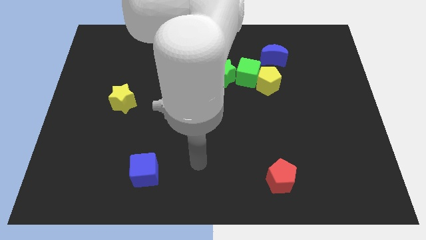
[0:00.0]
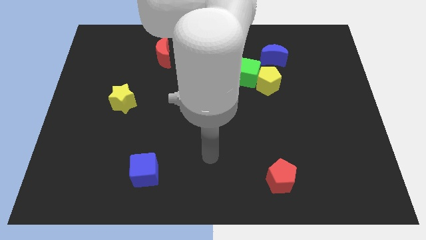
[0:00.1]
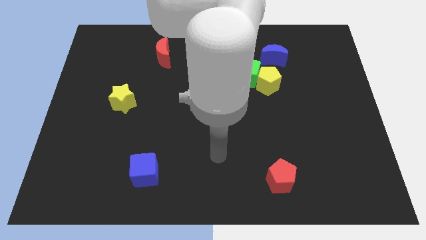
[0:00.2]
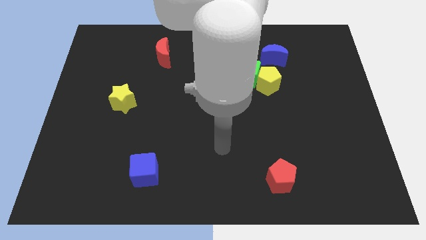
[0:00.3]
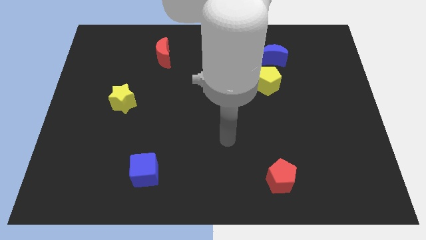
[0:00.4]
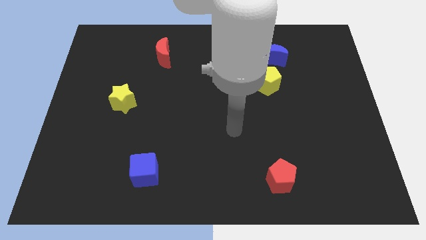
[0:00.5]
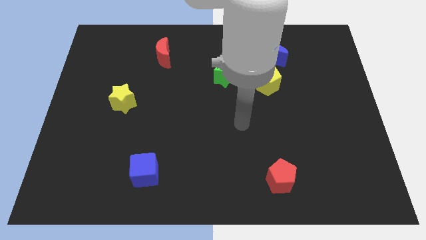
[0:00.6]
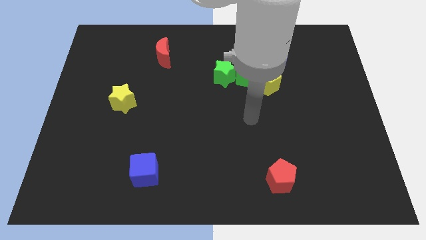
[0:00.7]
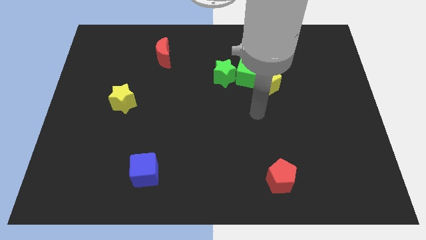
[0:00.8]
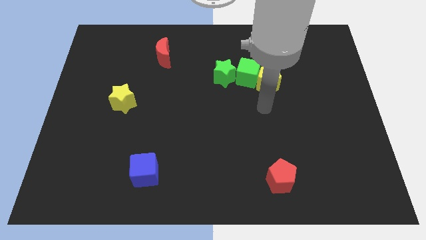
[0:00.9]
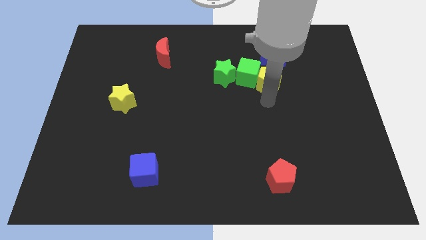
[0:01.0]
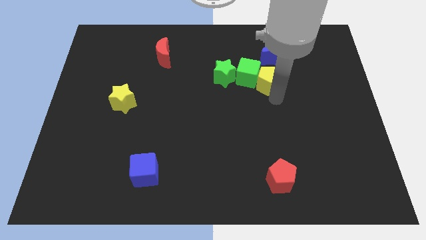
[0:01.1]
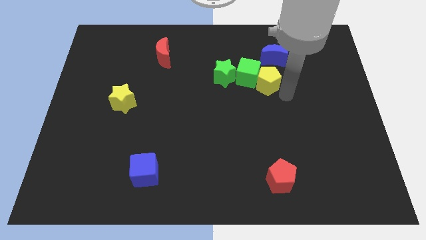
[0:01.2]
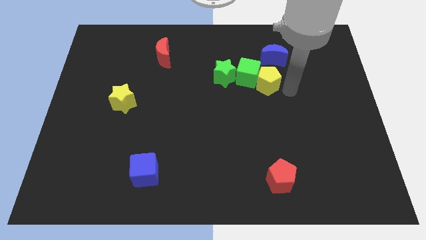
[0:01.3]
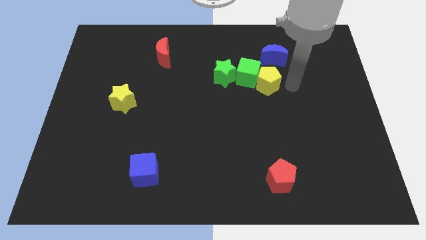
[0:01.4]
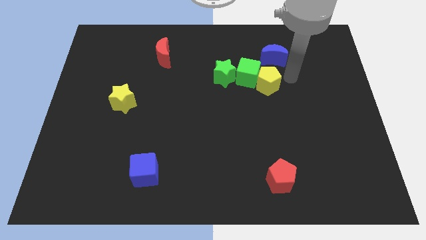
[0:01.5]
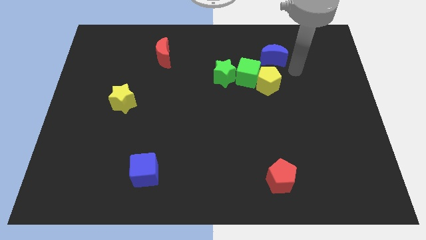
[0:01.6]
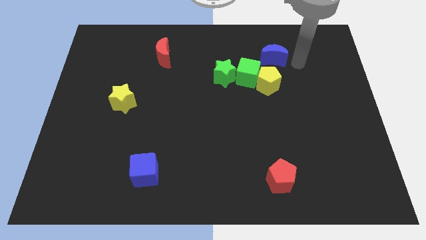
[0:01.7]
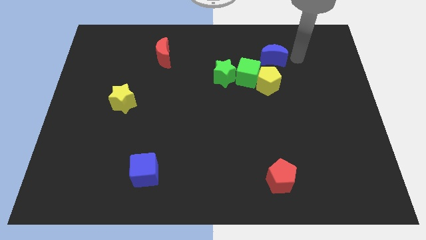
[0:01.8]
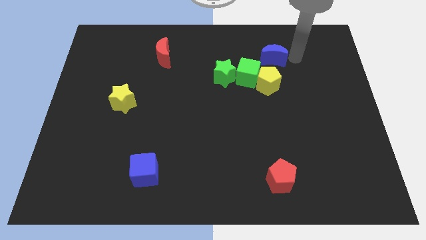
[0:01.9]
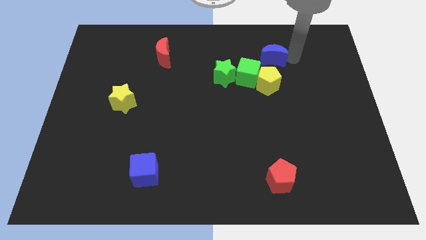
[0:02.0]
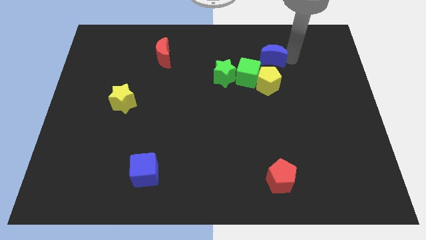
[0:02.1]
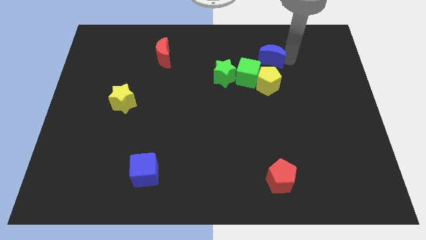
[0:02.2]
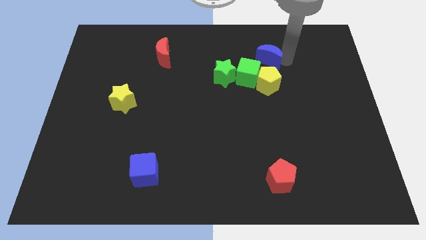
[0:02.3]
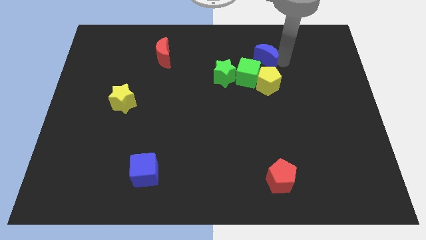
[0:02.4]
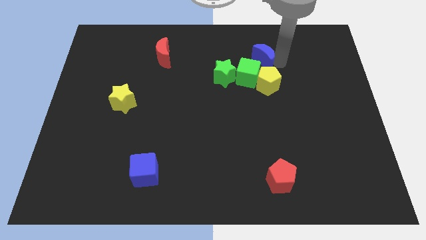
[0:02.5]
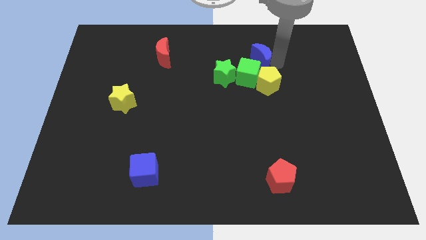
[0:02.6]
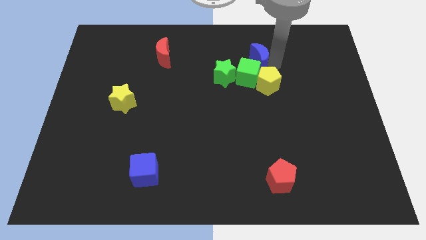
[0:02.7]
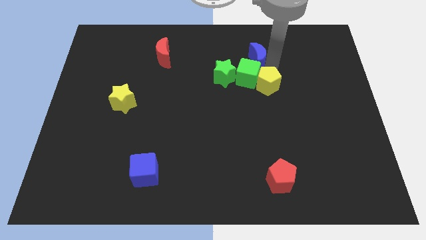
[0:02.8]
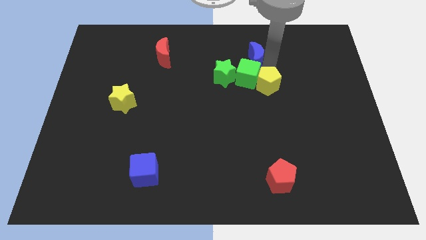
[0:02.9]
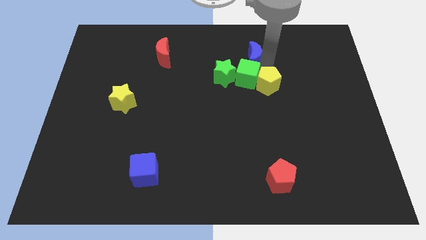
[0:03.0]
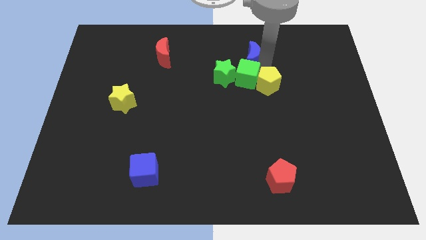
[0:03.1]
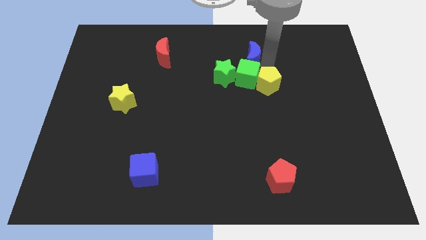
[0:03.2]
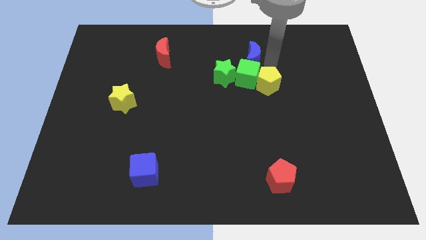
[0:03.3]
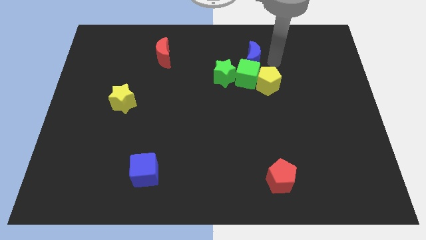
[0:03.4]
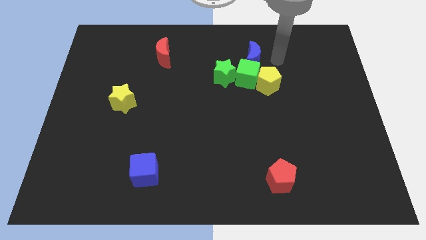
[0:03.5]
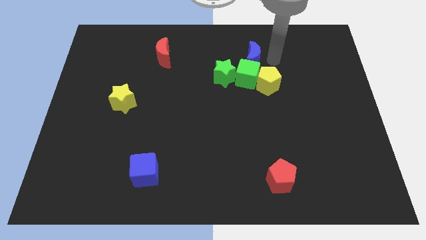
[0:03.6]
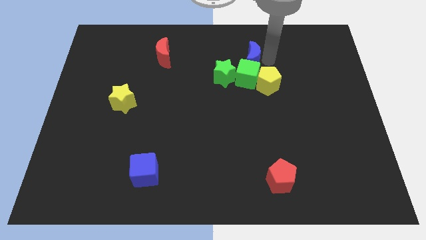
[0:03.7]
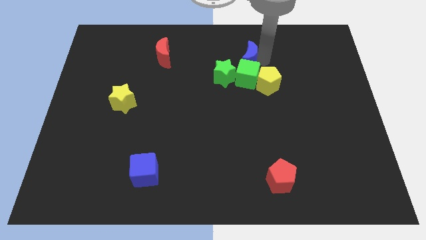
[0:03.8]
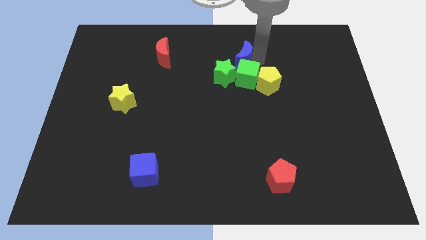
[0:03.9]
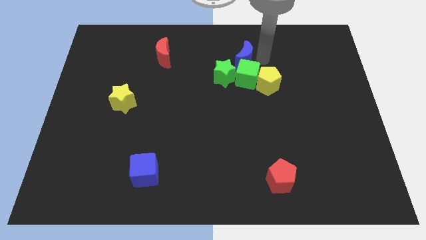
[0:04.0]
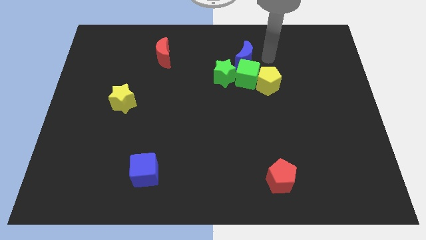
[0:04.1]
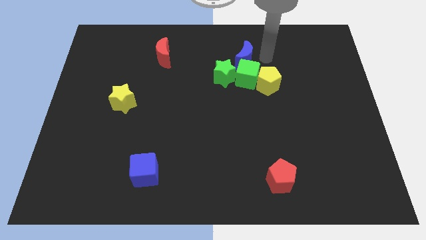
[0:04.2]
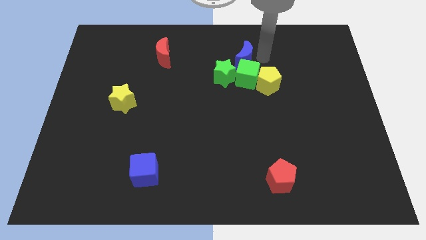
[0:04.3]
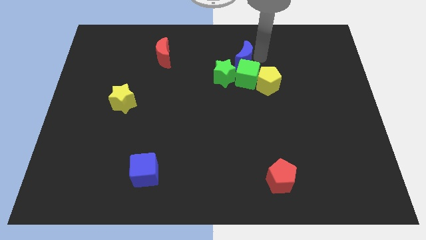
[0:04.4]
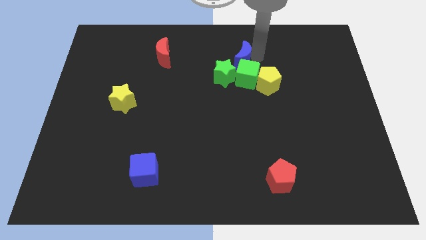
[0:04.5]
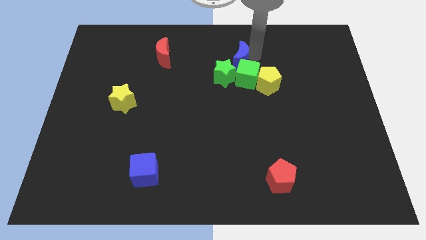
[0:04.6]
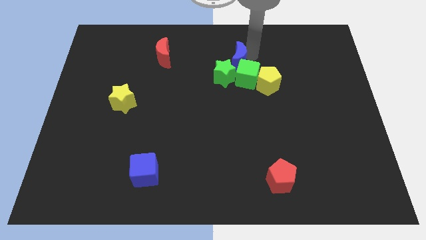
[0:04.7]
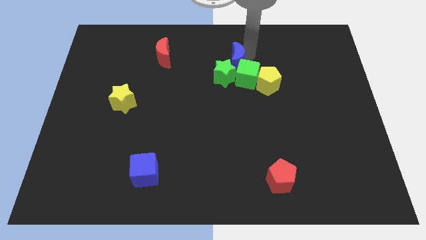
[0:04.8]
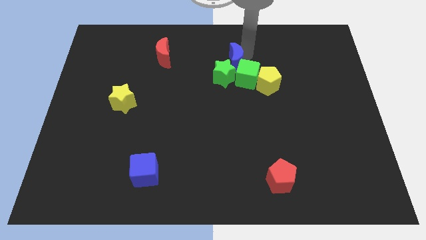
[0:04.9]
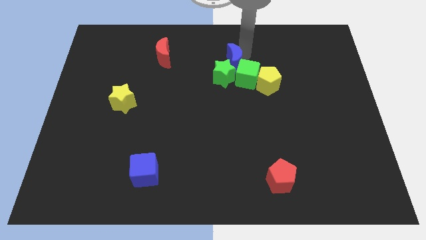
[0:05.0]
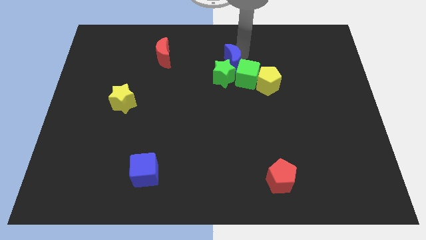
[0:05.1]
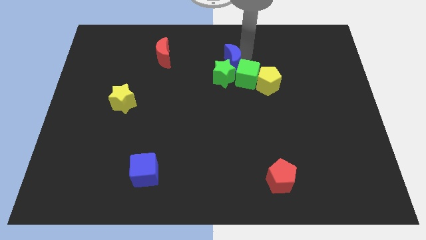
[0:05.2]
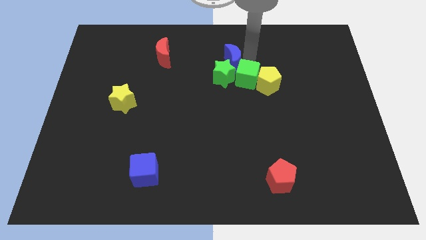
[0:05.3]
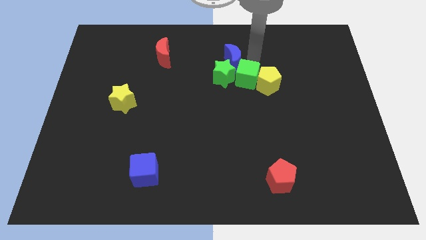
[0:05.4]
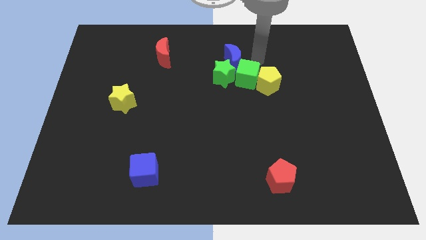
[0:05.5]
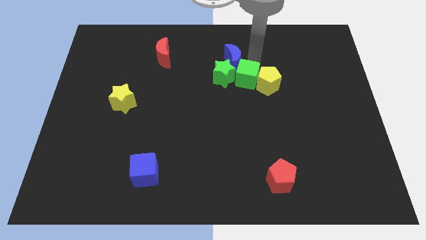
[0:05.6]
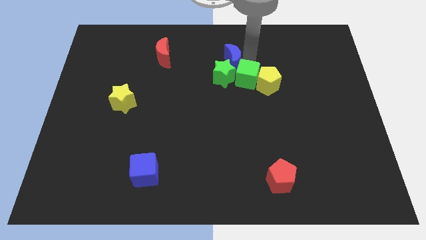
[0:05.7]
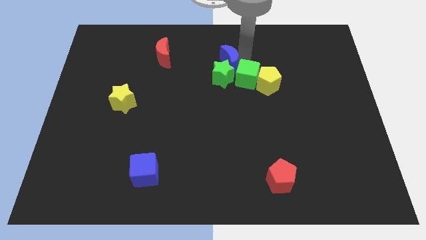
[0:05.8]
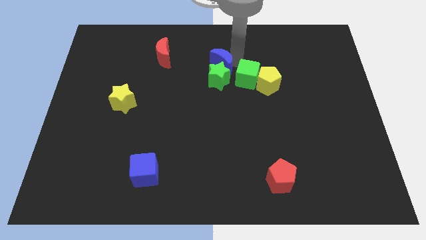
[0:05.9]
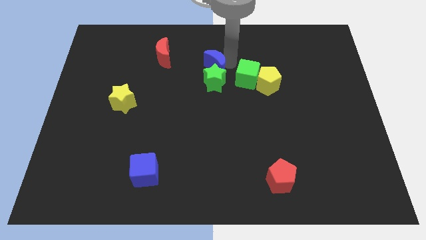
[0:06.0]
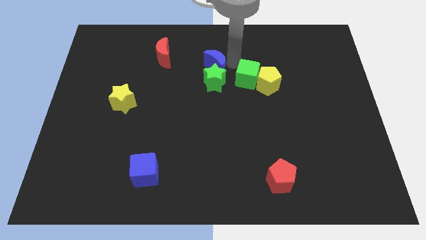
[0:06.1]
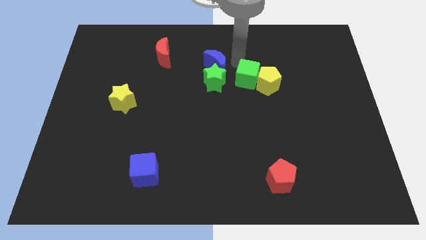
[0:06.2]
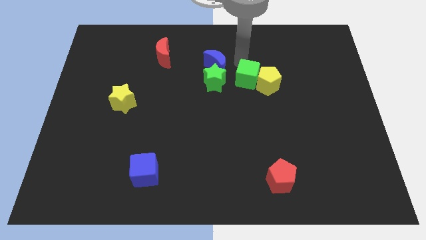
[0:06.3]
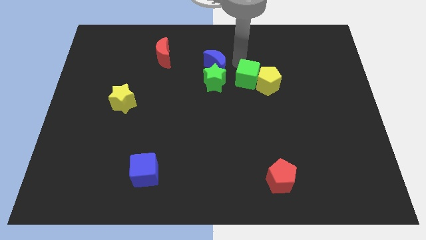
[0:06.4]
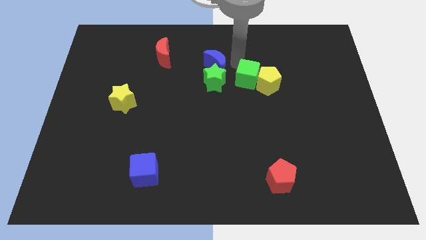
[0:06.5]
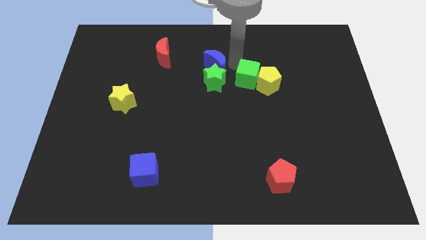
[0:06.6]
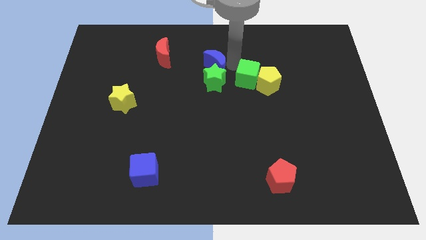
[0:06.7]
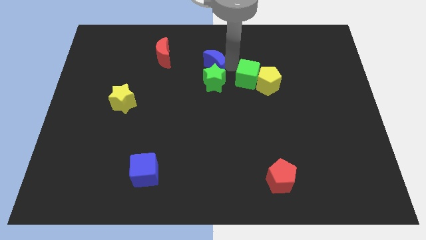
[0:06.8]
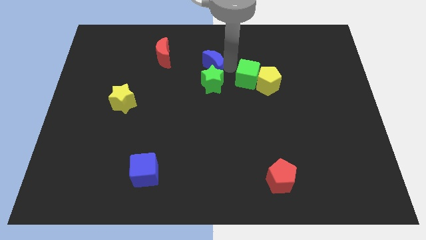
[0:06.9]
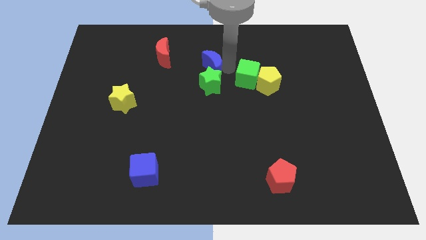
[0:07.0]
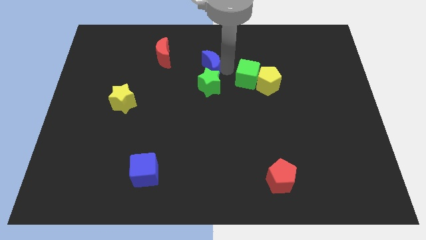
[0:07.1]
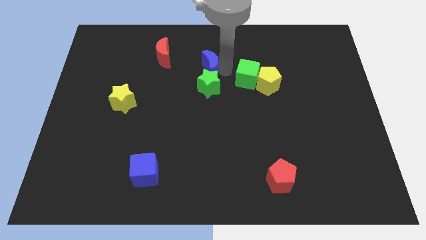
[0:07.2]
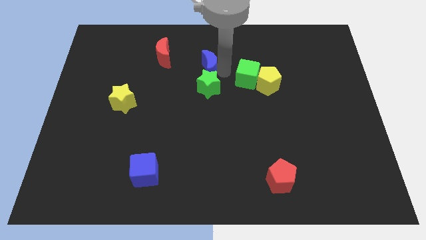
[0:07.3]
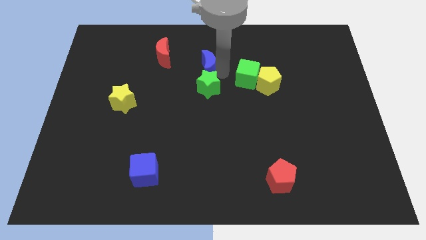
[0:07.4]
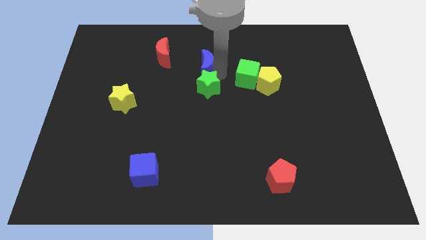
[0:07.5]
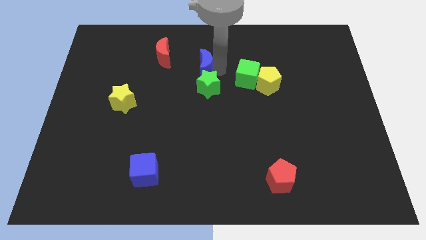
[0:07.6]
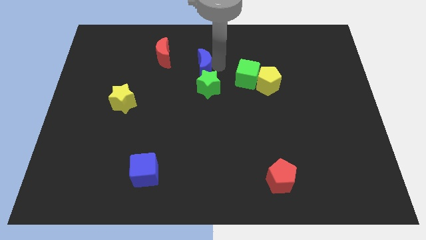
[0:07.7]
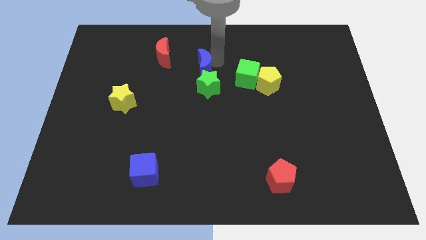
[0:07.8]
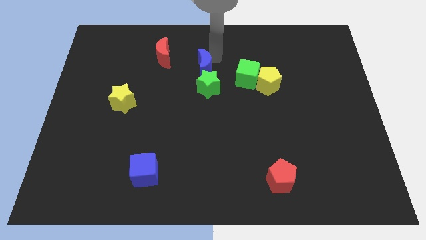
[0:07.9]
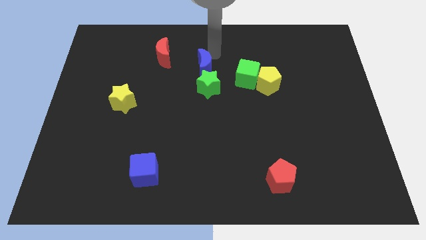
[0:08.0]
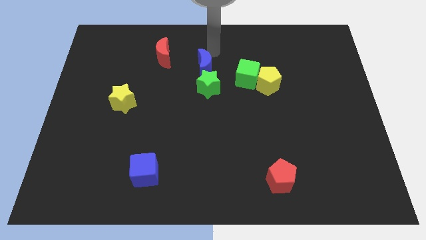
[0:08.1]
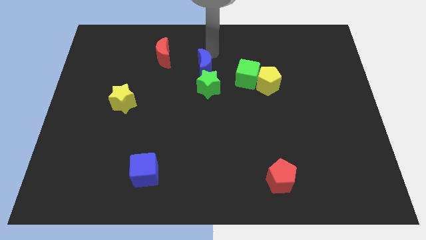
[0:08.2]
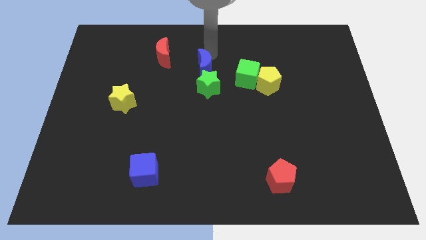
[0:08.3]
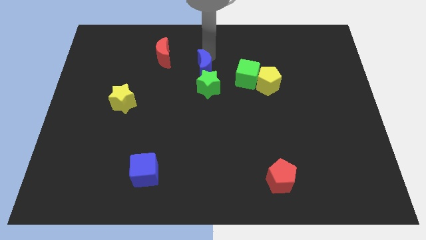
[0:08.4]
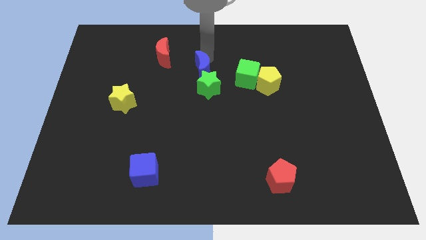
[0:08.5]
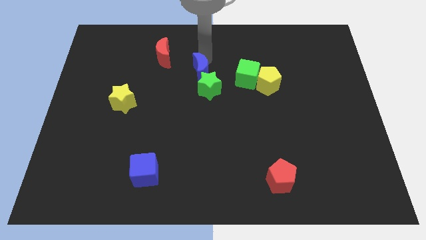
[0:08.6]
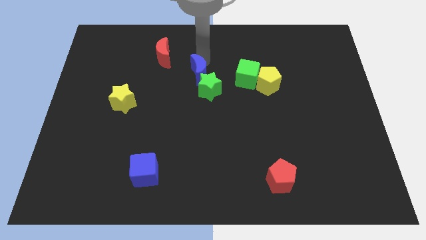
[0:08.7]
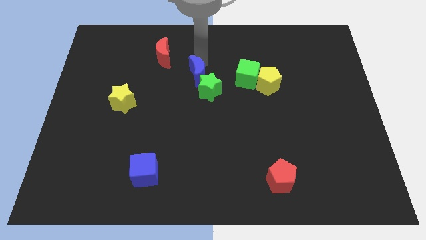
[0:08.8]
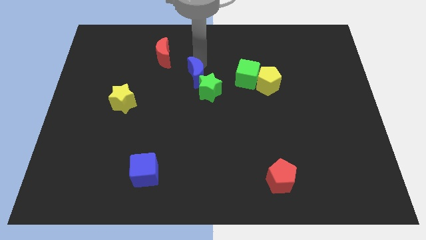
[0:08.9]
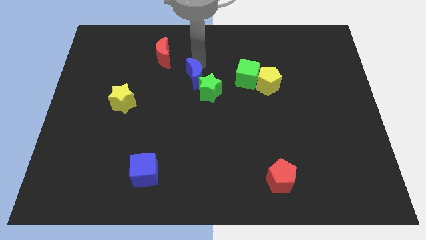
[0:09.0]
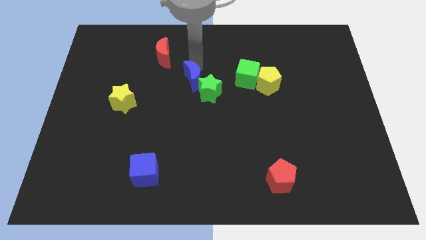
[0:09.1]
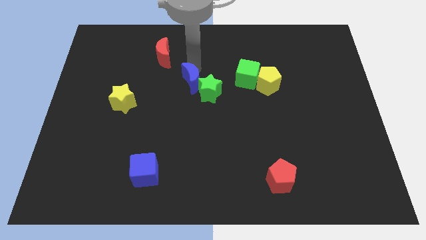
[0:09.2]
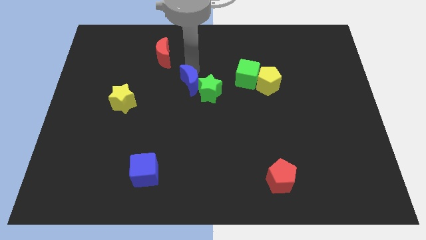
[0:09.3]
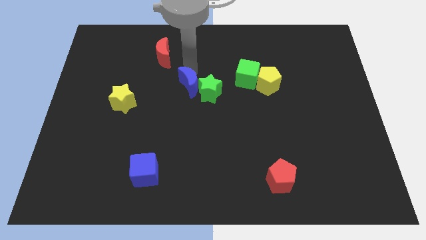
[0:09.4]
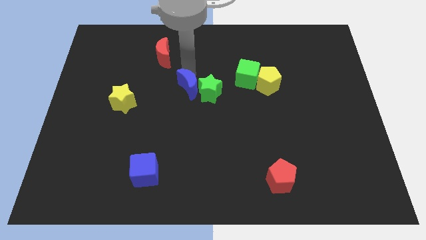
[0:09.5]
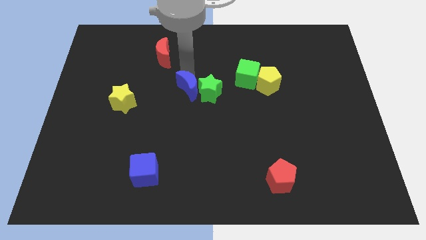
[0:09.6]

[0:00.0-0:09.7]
slide the blue moon down and then to the left
